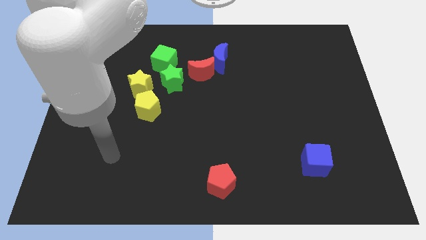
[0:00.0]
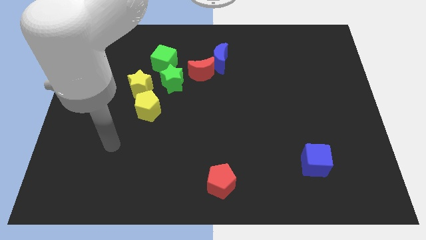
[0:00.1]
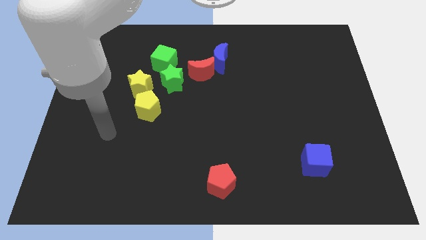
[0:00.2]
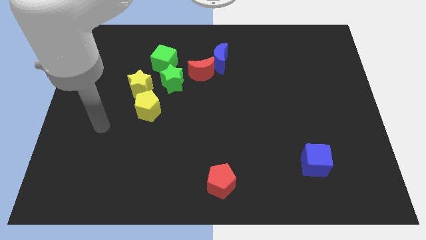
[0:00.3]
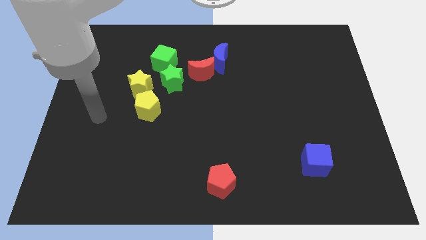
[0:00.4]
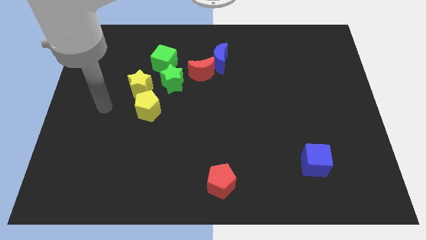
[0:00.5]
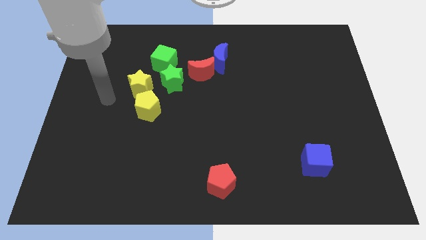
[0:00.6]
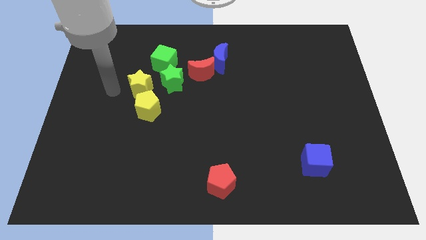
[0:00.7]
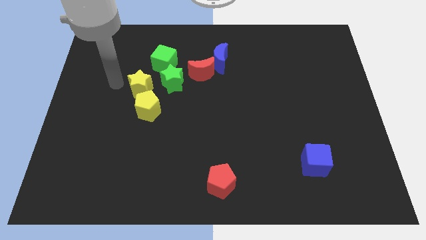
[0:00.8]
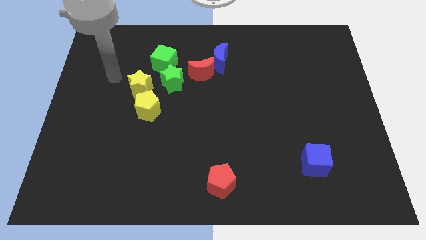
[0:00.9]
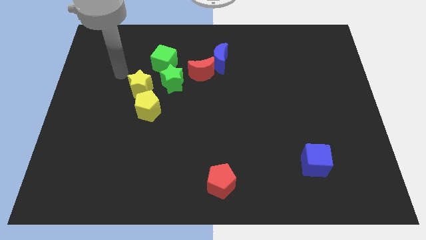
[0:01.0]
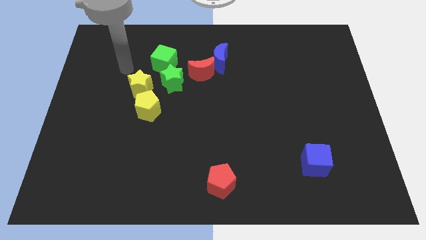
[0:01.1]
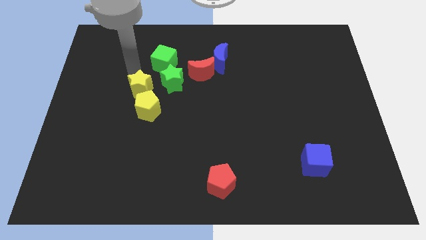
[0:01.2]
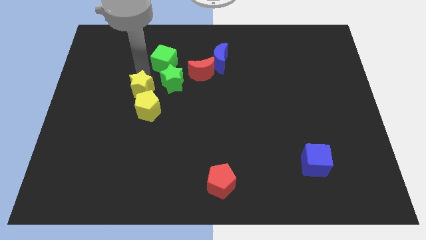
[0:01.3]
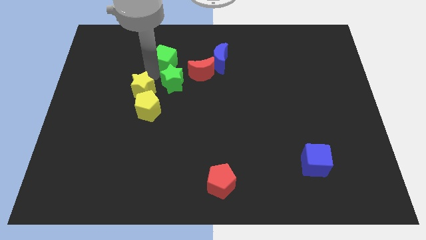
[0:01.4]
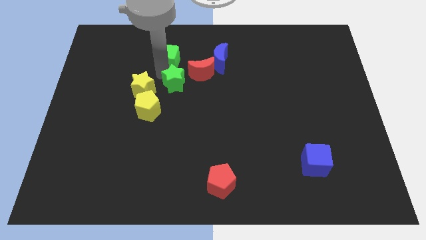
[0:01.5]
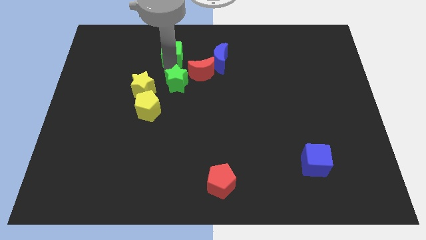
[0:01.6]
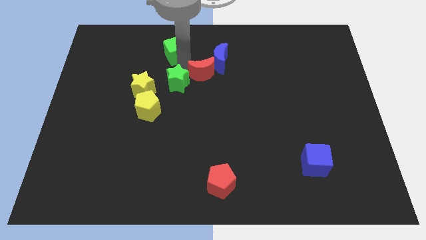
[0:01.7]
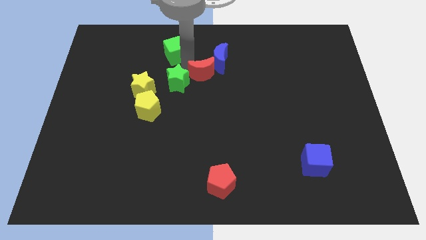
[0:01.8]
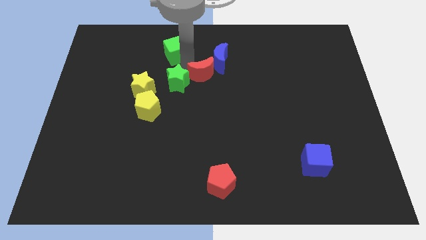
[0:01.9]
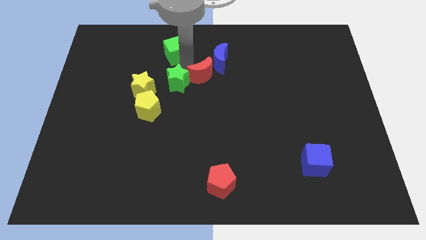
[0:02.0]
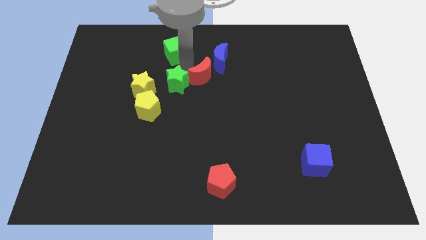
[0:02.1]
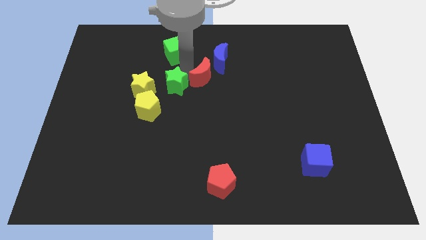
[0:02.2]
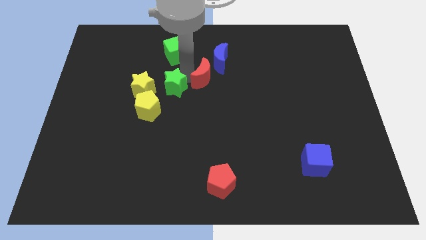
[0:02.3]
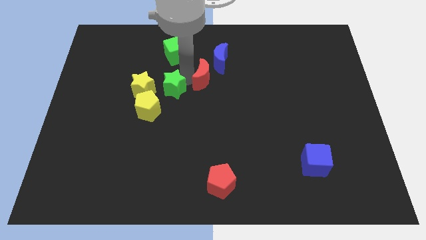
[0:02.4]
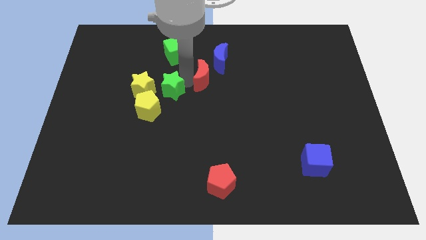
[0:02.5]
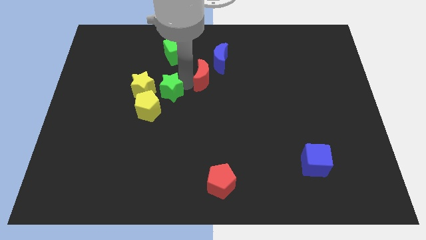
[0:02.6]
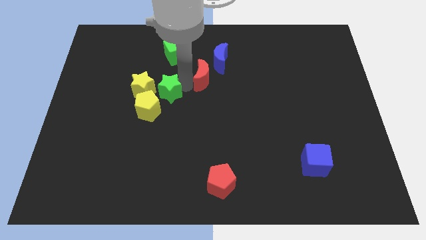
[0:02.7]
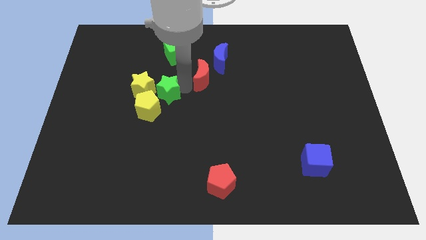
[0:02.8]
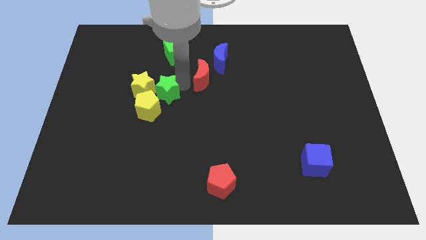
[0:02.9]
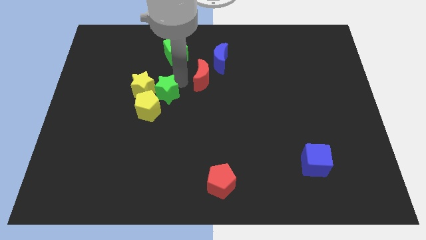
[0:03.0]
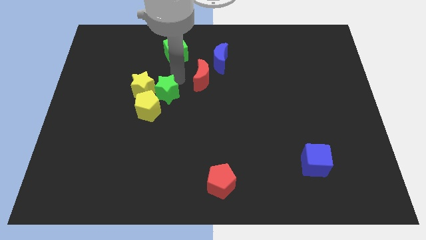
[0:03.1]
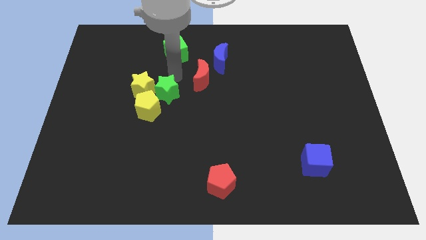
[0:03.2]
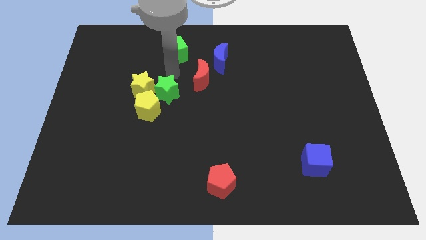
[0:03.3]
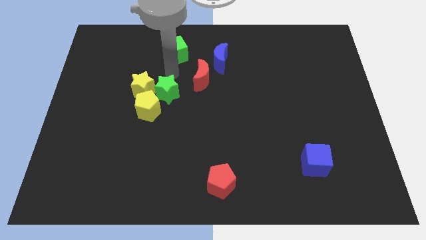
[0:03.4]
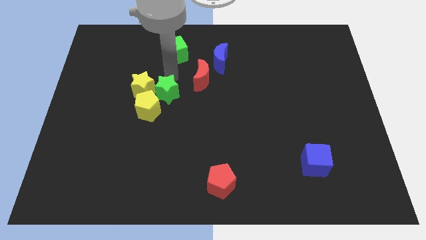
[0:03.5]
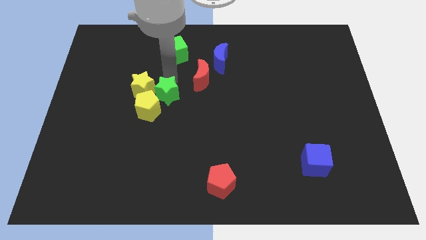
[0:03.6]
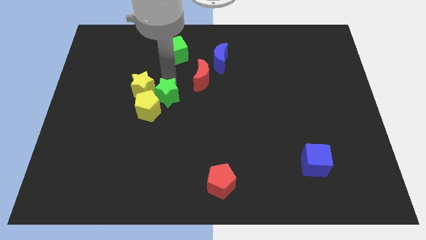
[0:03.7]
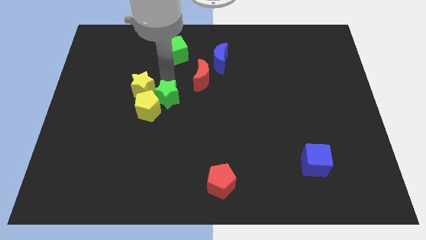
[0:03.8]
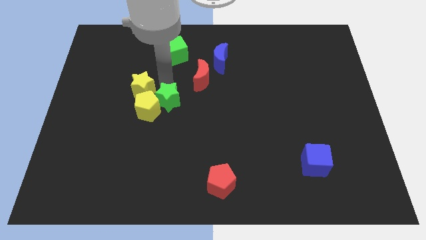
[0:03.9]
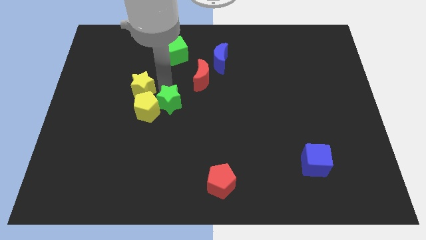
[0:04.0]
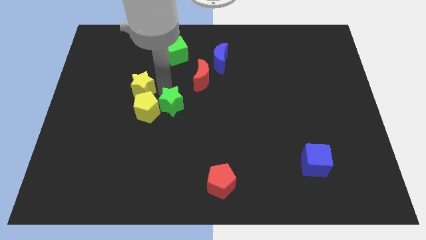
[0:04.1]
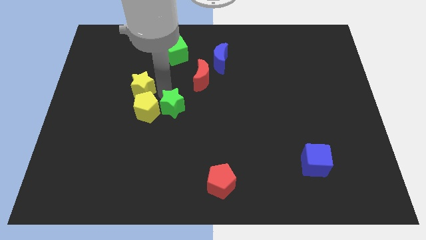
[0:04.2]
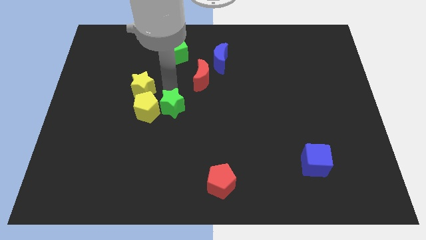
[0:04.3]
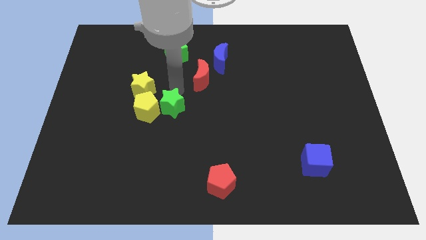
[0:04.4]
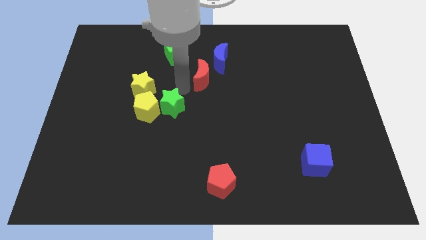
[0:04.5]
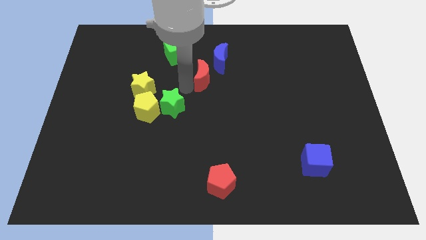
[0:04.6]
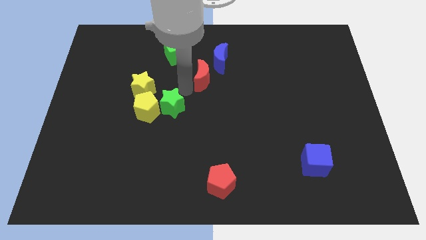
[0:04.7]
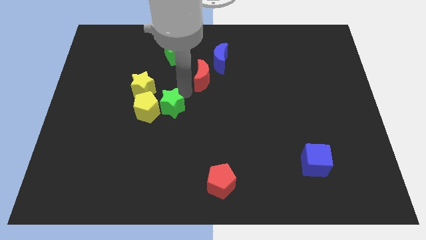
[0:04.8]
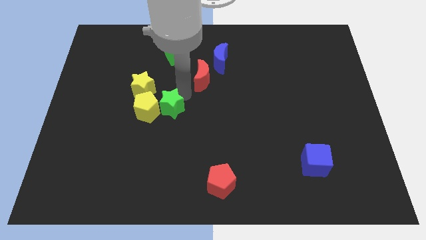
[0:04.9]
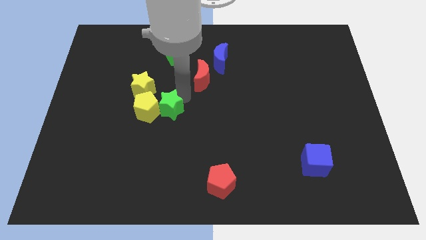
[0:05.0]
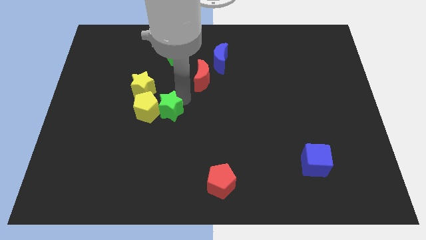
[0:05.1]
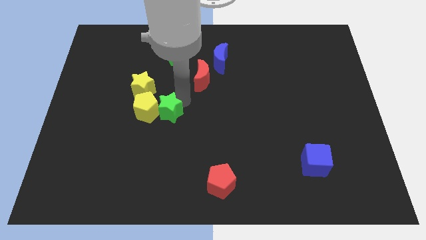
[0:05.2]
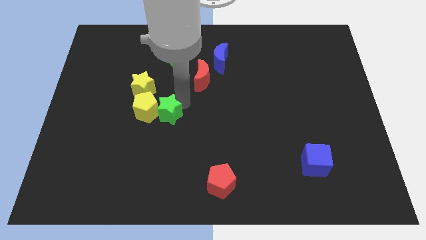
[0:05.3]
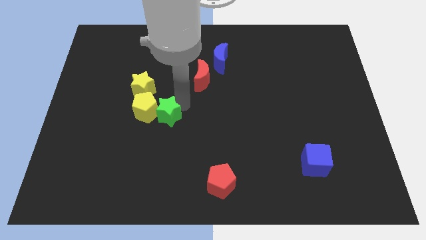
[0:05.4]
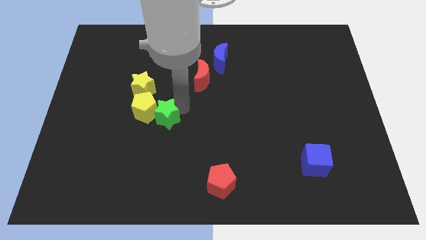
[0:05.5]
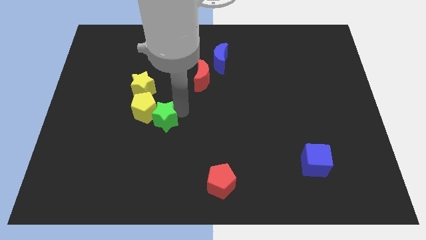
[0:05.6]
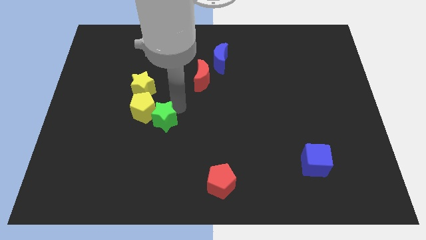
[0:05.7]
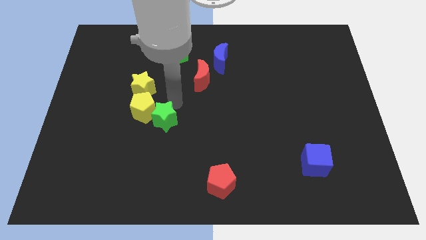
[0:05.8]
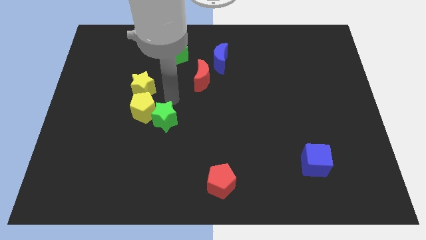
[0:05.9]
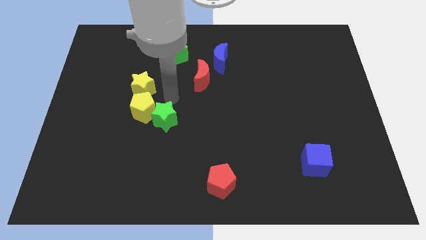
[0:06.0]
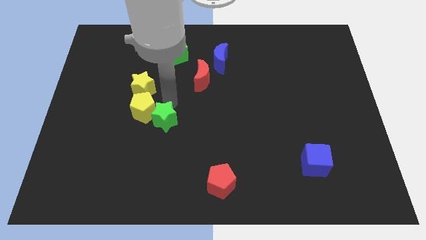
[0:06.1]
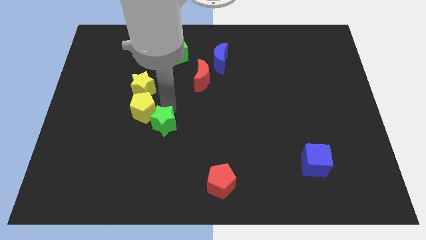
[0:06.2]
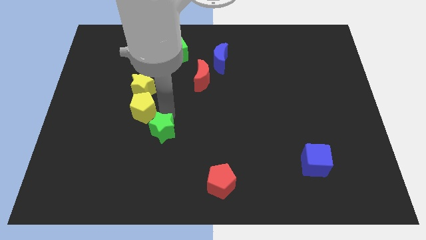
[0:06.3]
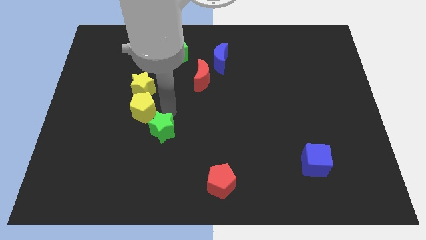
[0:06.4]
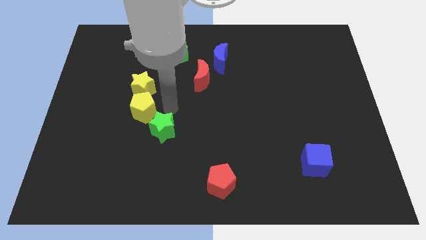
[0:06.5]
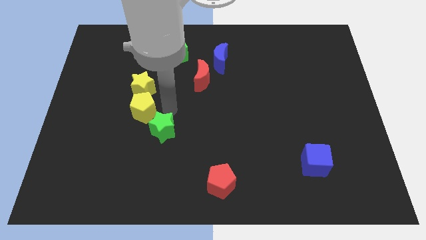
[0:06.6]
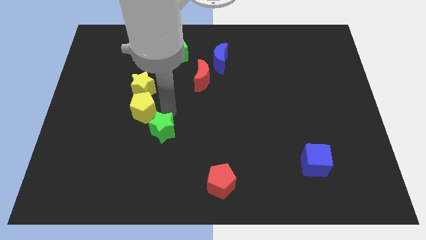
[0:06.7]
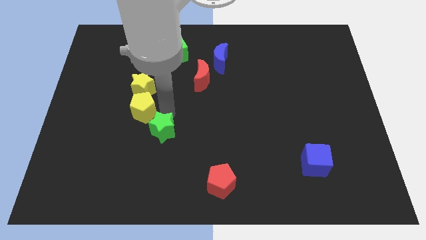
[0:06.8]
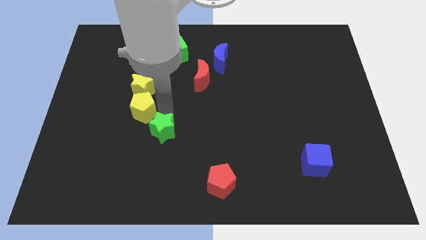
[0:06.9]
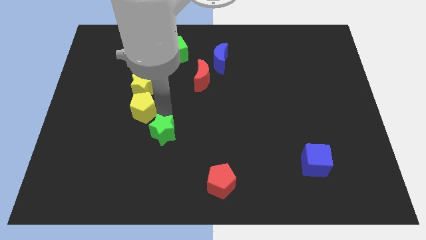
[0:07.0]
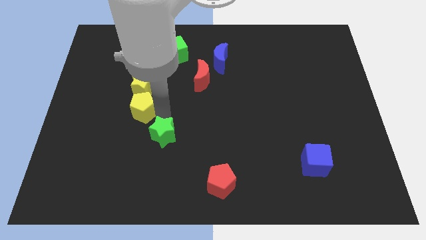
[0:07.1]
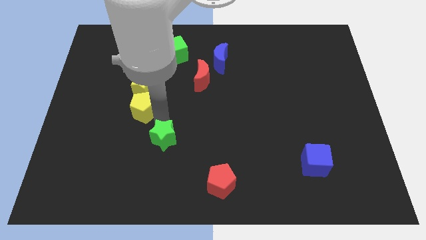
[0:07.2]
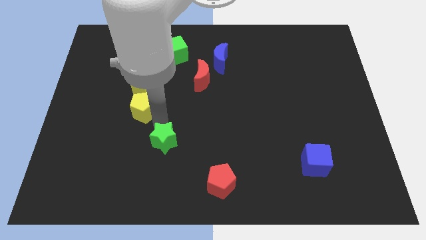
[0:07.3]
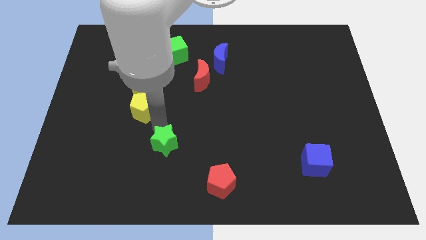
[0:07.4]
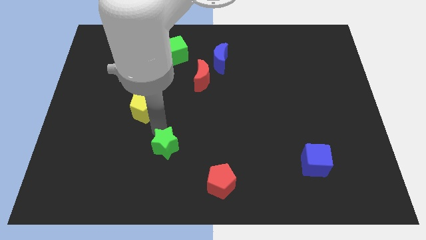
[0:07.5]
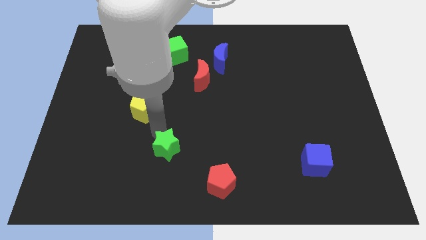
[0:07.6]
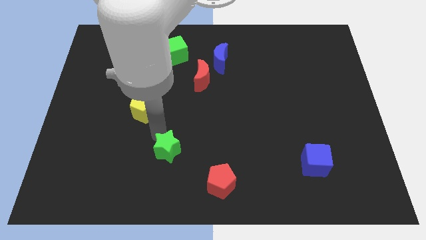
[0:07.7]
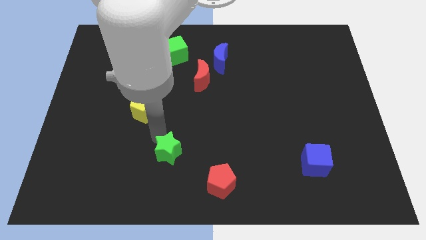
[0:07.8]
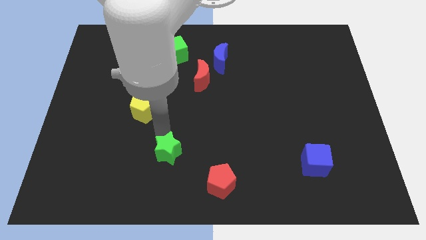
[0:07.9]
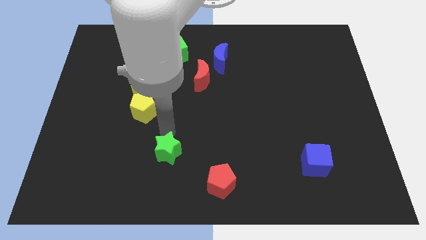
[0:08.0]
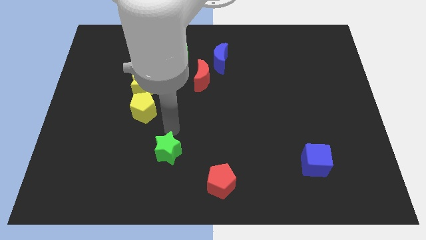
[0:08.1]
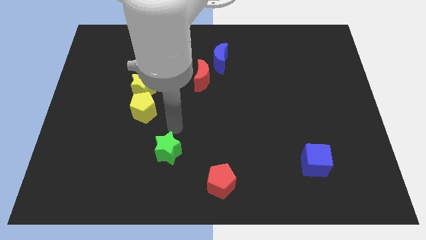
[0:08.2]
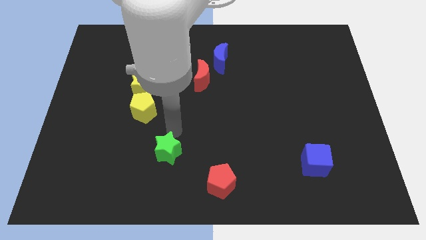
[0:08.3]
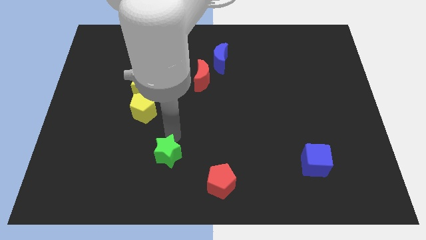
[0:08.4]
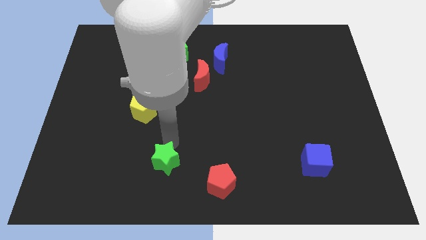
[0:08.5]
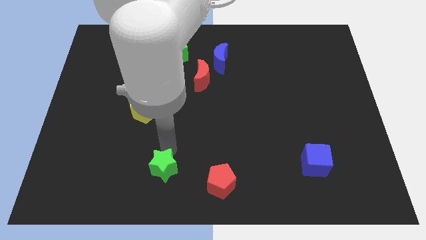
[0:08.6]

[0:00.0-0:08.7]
slide the green star left of the red pentagon
